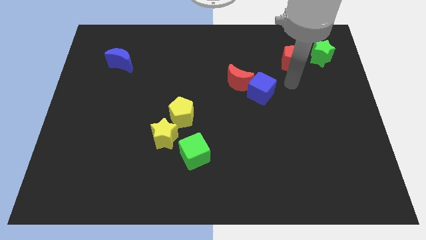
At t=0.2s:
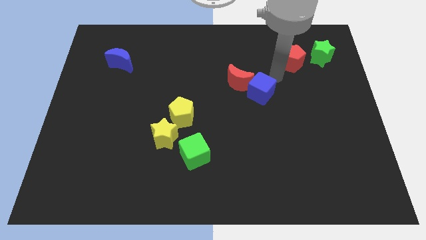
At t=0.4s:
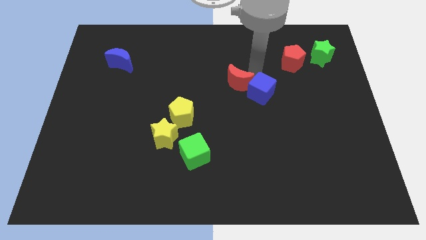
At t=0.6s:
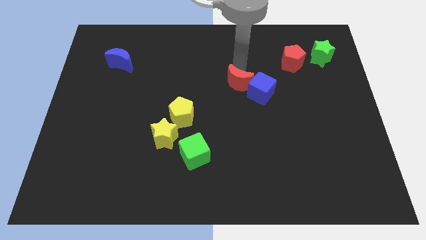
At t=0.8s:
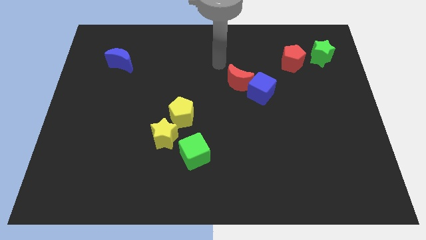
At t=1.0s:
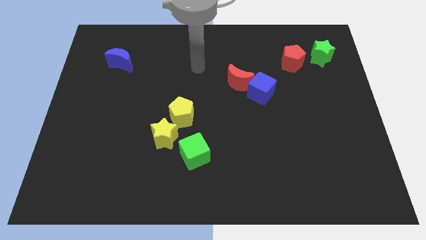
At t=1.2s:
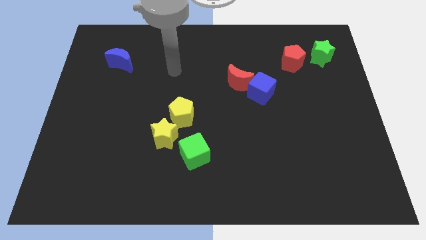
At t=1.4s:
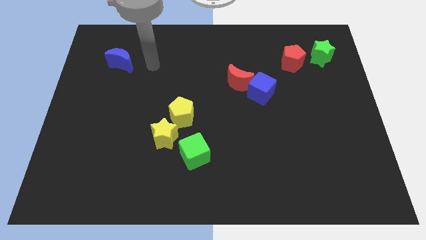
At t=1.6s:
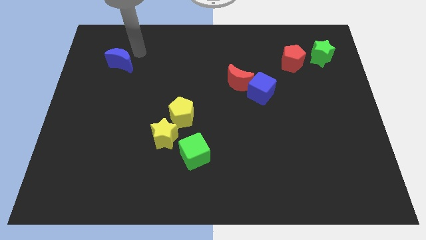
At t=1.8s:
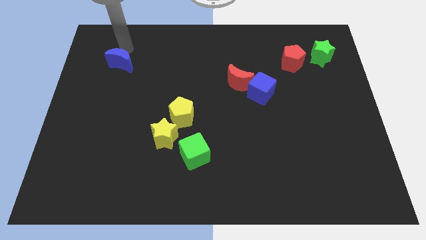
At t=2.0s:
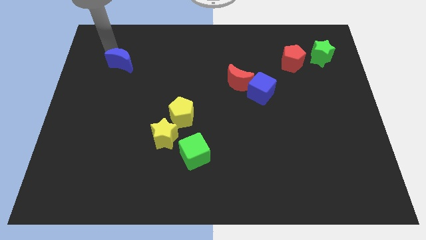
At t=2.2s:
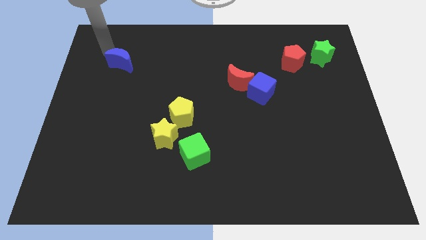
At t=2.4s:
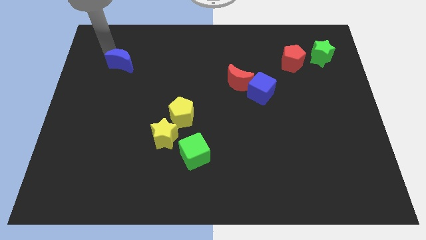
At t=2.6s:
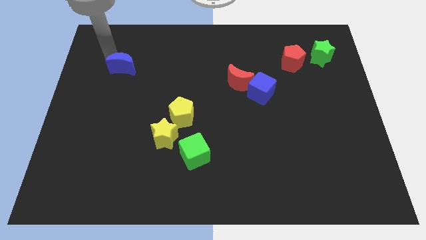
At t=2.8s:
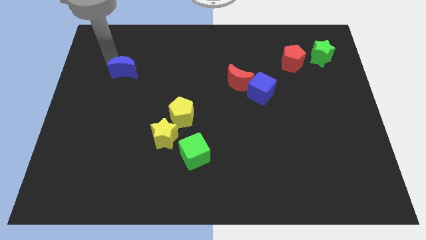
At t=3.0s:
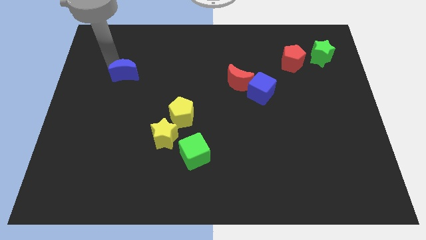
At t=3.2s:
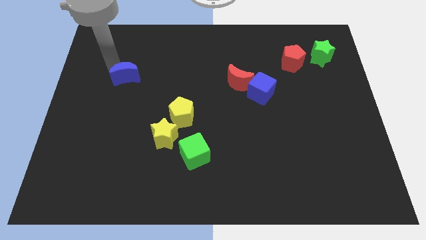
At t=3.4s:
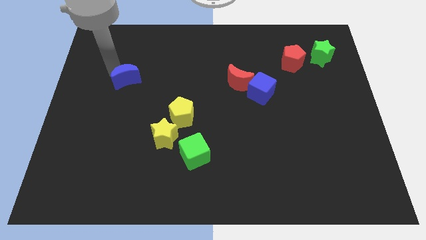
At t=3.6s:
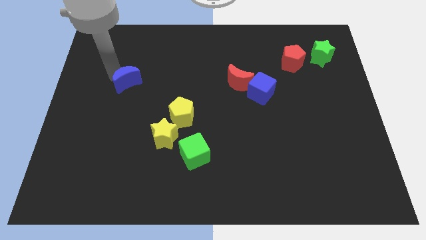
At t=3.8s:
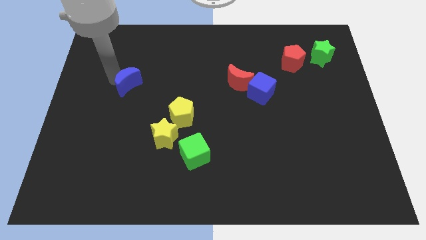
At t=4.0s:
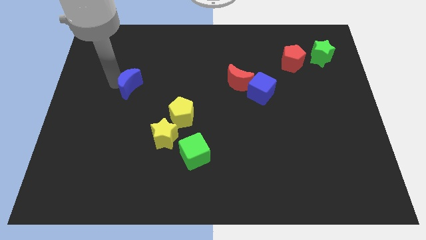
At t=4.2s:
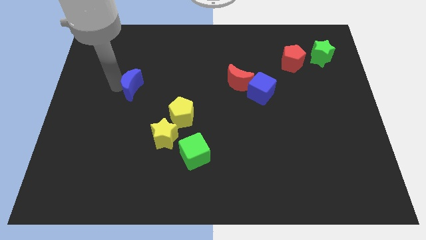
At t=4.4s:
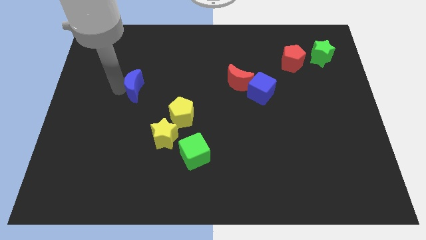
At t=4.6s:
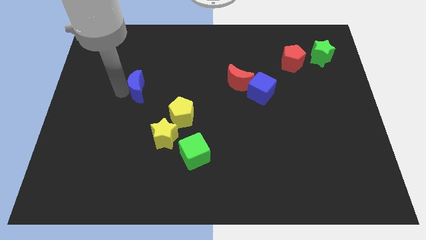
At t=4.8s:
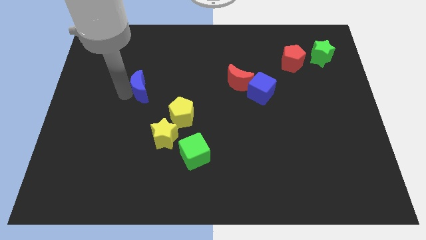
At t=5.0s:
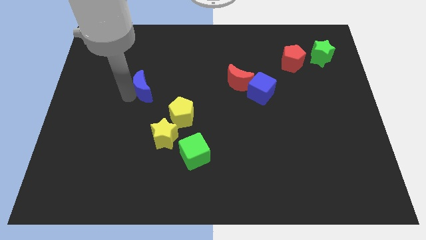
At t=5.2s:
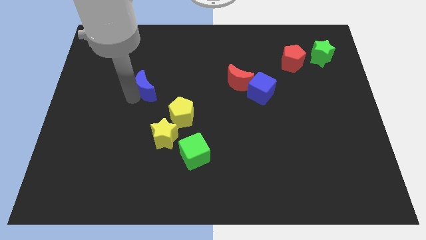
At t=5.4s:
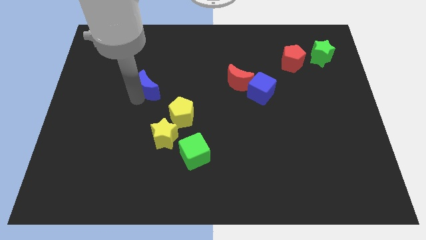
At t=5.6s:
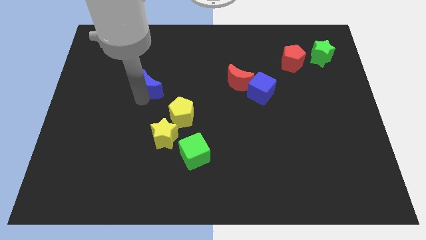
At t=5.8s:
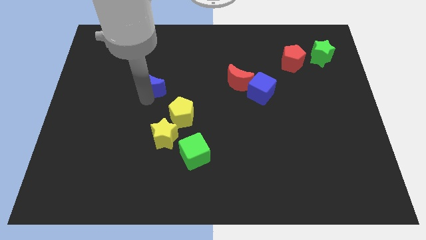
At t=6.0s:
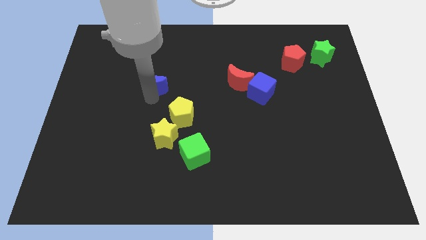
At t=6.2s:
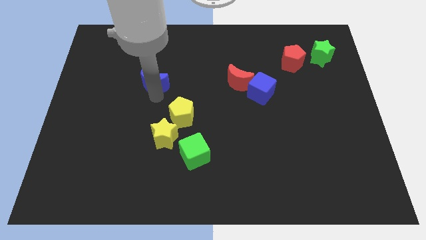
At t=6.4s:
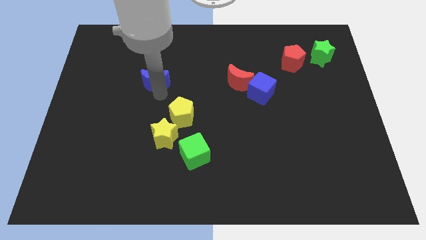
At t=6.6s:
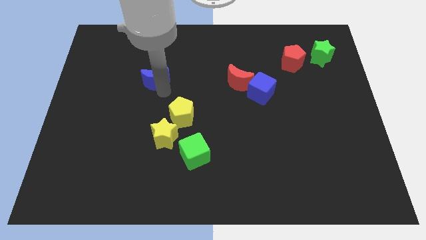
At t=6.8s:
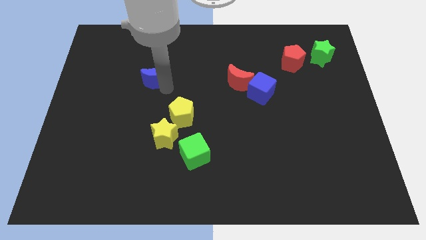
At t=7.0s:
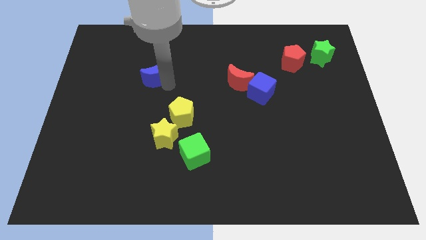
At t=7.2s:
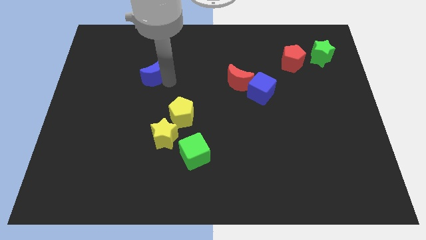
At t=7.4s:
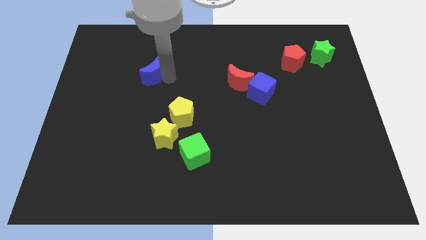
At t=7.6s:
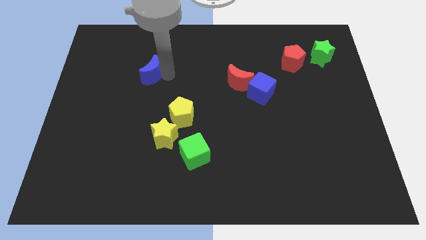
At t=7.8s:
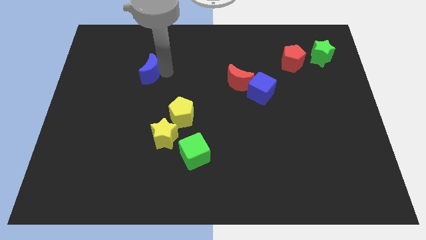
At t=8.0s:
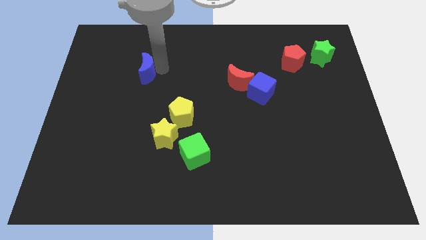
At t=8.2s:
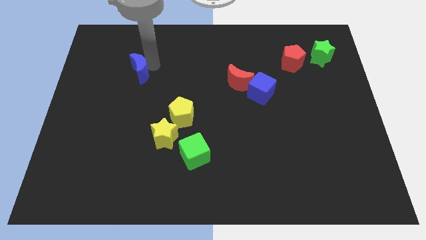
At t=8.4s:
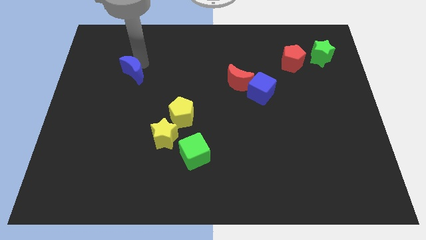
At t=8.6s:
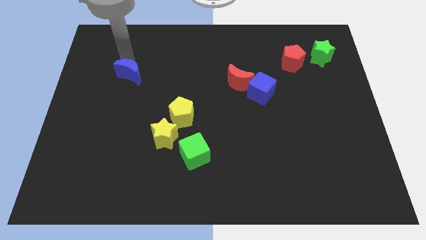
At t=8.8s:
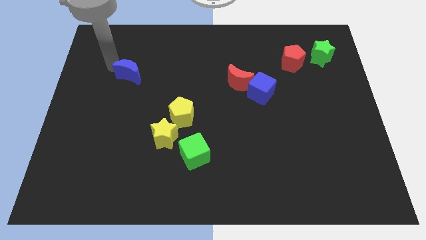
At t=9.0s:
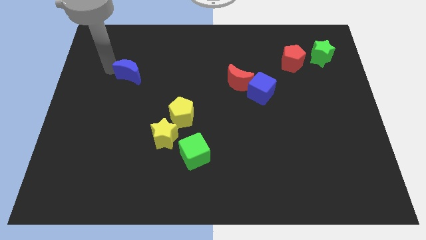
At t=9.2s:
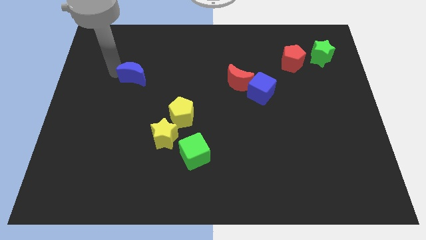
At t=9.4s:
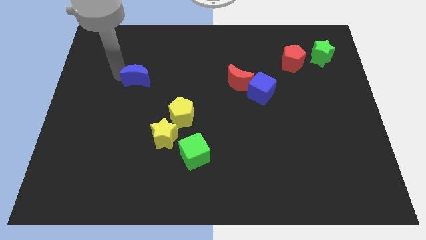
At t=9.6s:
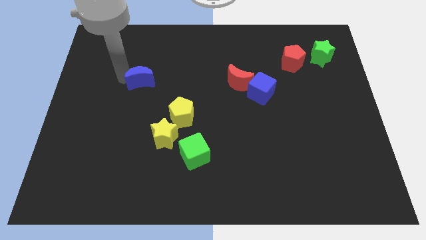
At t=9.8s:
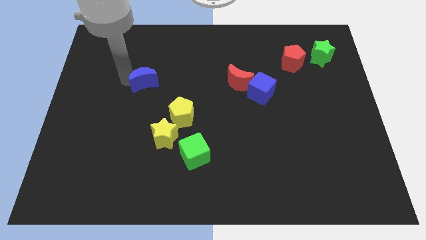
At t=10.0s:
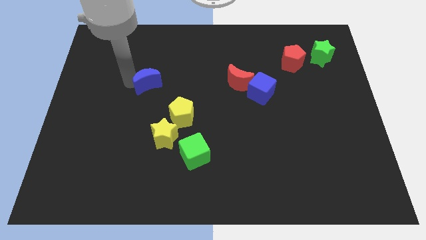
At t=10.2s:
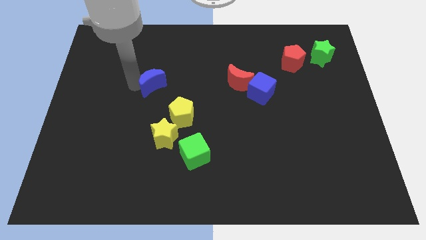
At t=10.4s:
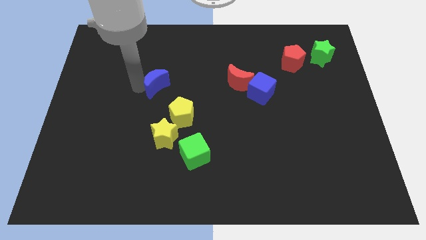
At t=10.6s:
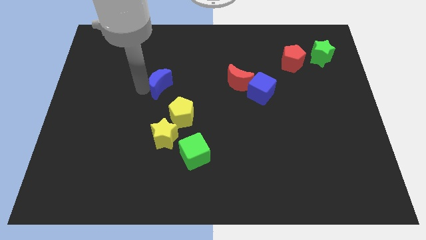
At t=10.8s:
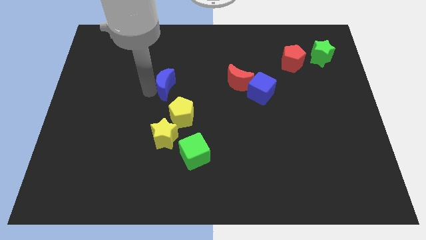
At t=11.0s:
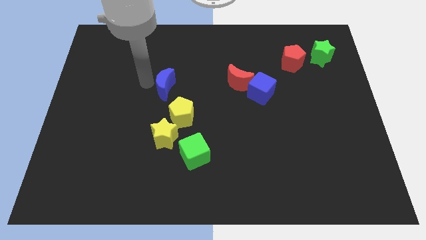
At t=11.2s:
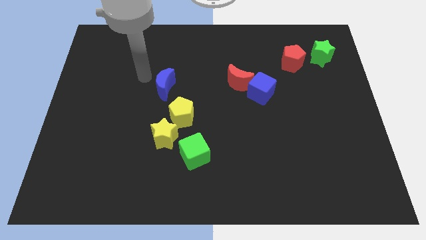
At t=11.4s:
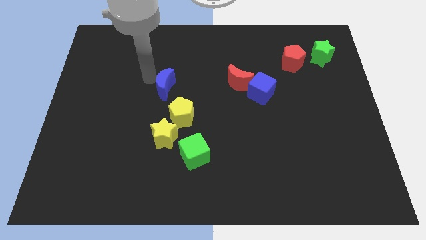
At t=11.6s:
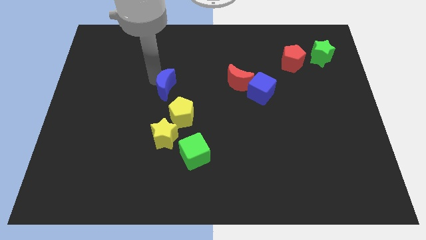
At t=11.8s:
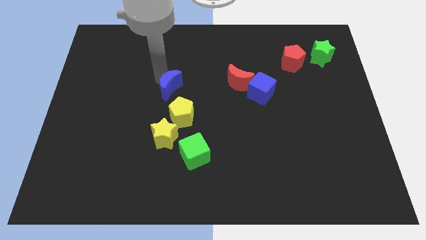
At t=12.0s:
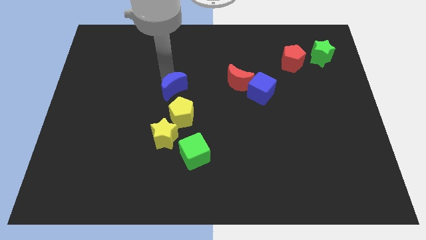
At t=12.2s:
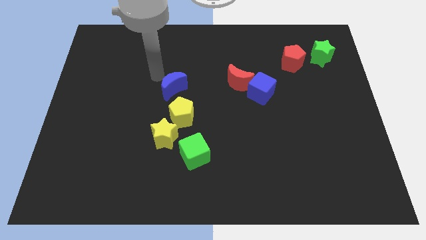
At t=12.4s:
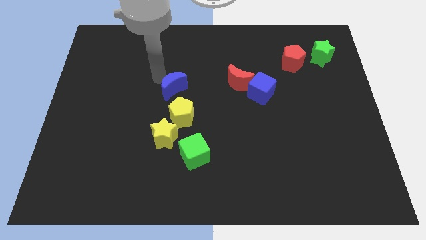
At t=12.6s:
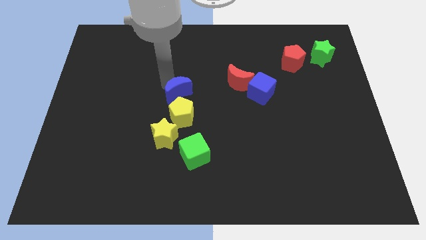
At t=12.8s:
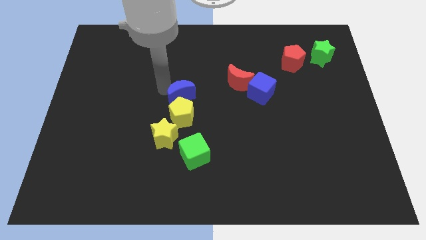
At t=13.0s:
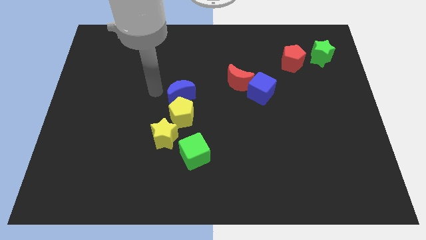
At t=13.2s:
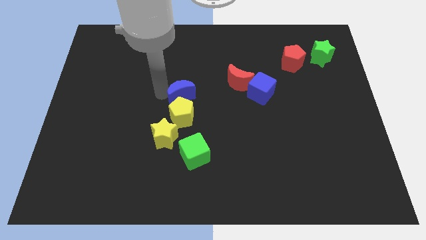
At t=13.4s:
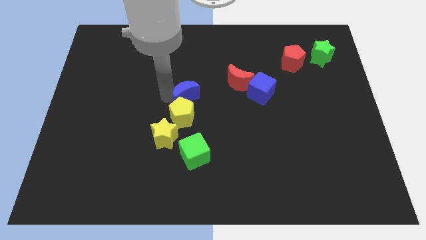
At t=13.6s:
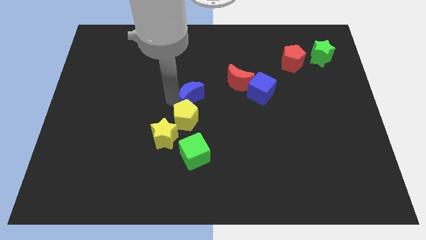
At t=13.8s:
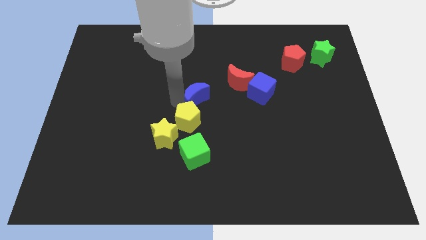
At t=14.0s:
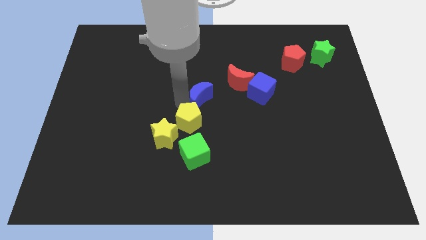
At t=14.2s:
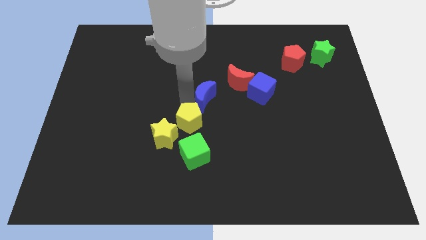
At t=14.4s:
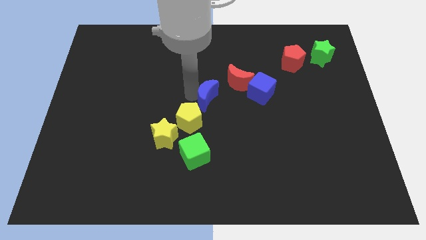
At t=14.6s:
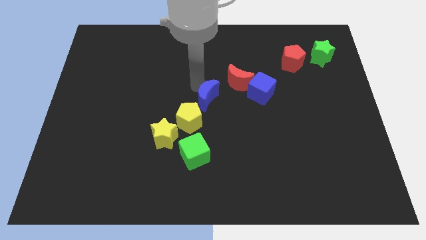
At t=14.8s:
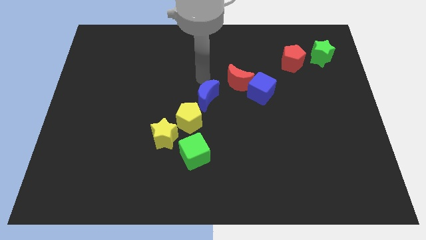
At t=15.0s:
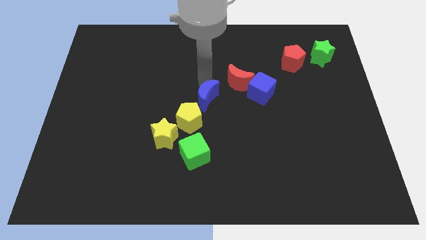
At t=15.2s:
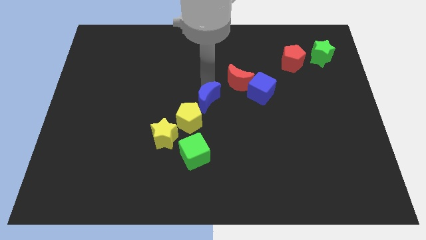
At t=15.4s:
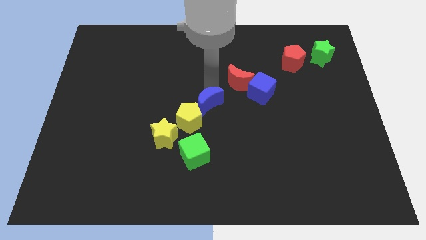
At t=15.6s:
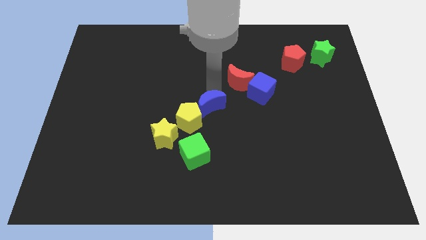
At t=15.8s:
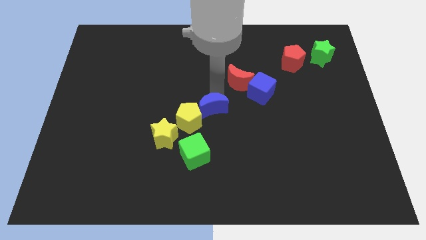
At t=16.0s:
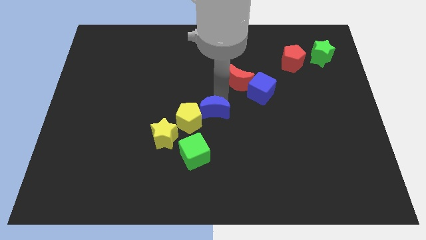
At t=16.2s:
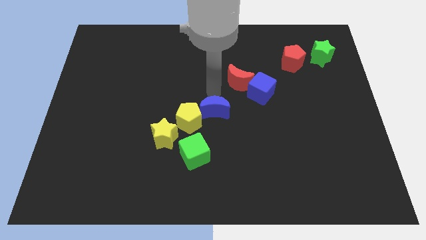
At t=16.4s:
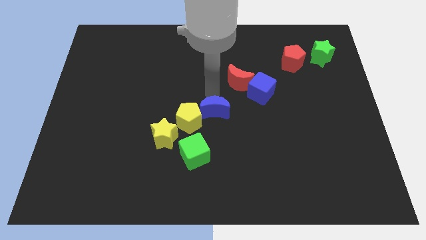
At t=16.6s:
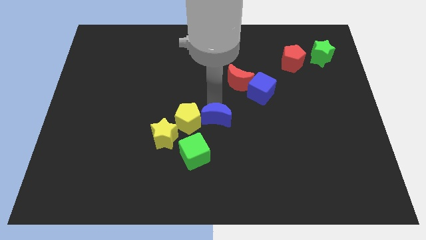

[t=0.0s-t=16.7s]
push the blue moon to the top right of the green cube
